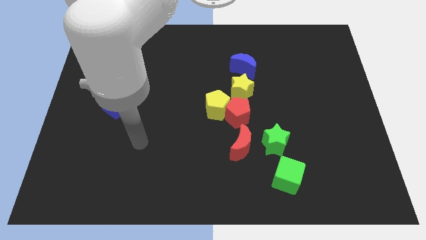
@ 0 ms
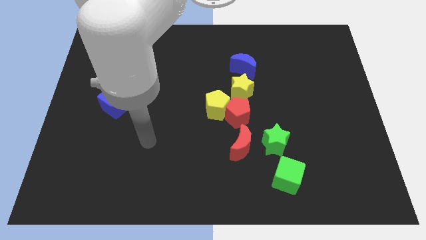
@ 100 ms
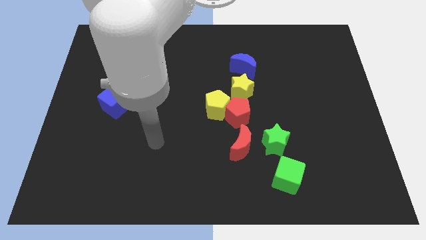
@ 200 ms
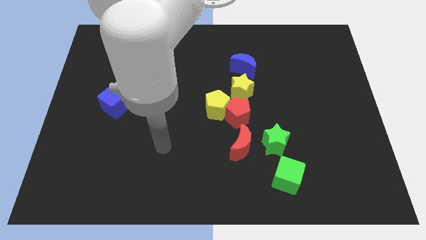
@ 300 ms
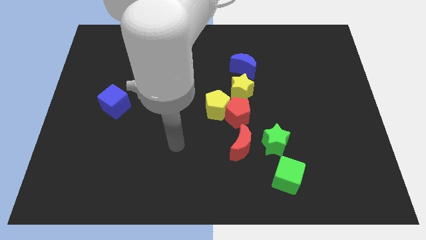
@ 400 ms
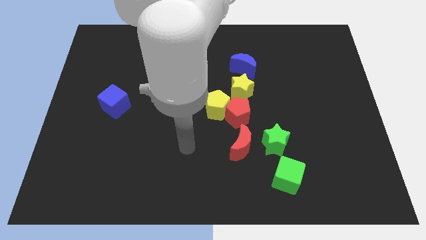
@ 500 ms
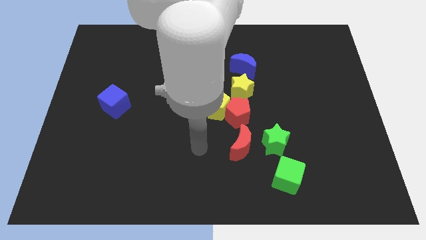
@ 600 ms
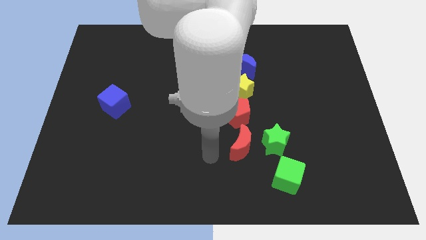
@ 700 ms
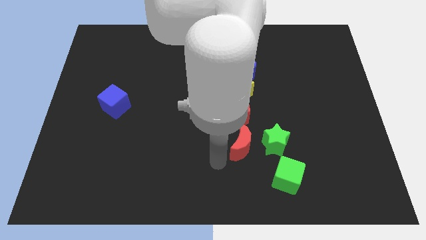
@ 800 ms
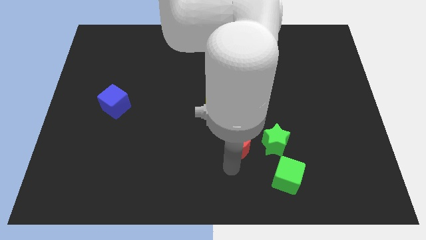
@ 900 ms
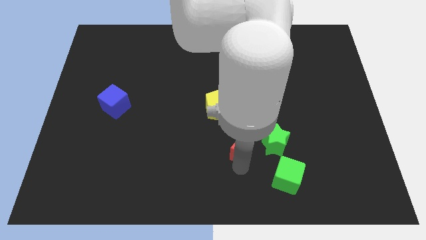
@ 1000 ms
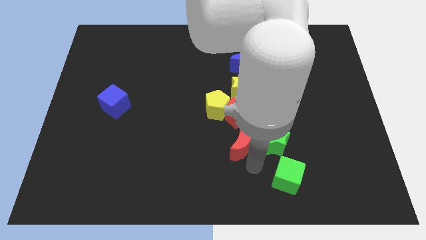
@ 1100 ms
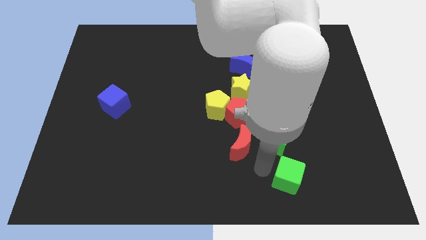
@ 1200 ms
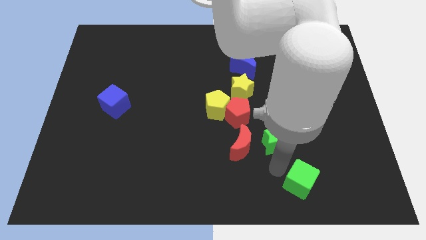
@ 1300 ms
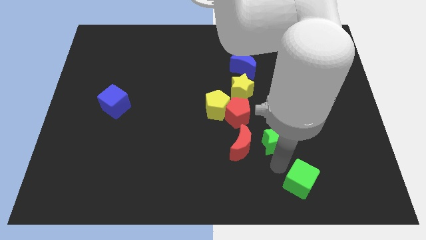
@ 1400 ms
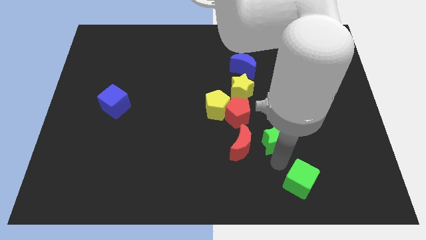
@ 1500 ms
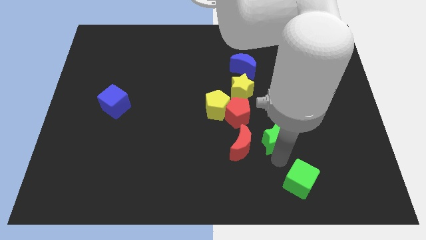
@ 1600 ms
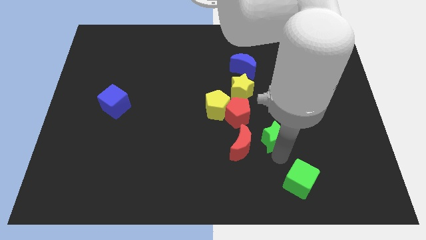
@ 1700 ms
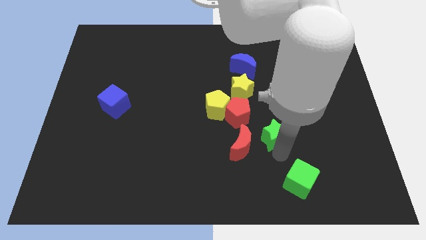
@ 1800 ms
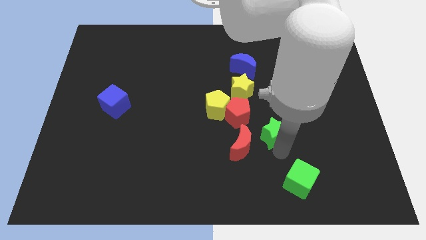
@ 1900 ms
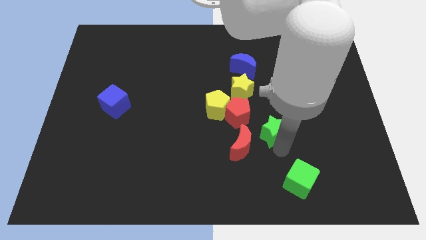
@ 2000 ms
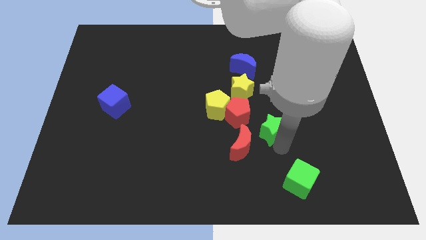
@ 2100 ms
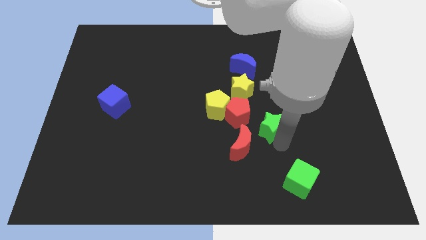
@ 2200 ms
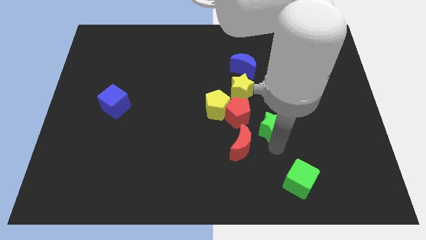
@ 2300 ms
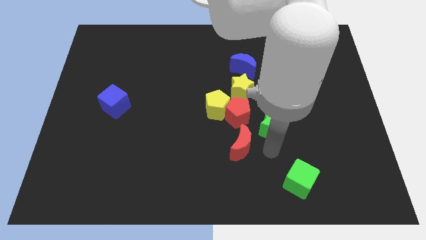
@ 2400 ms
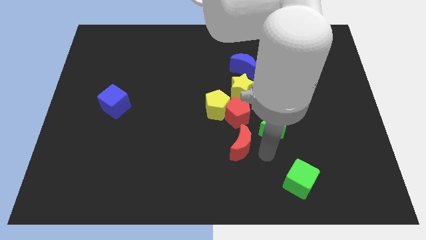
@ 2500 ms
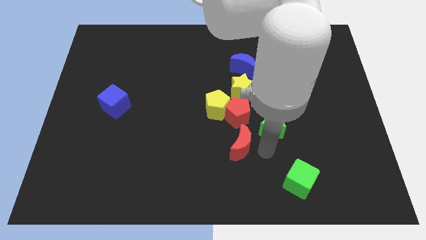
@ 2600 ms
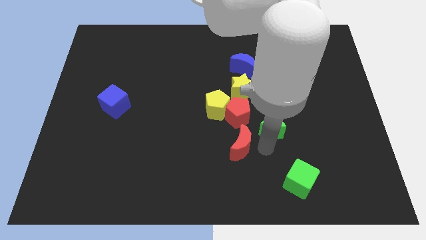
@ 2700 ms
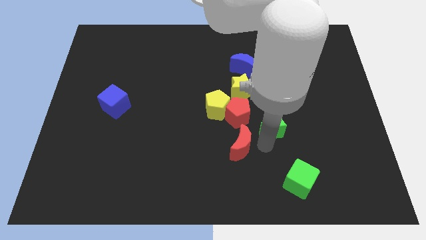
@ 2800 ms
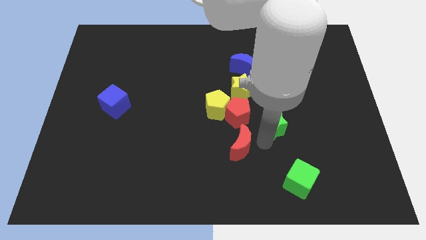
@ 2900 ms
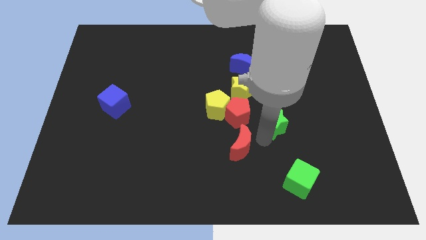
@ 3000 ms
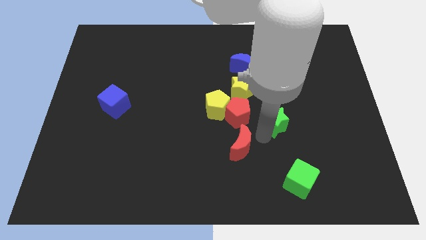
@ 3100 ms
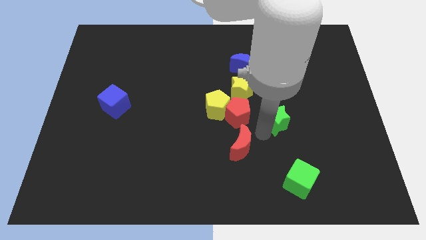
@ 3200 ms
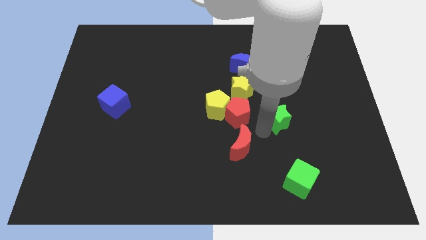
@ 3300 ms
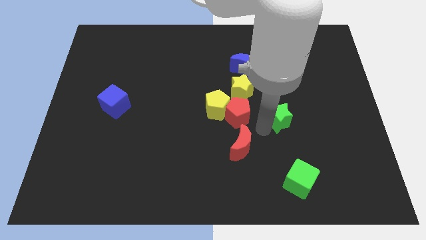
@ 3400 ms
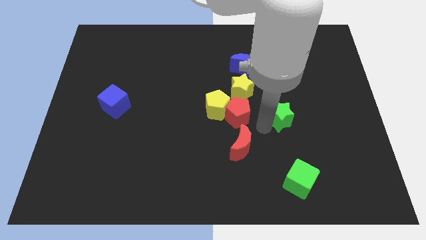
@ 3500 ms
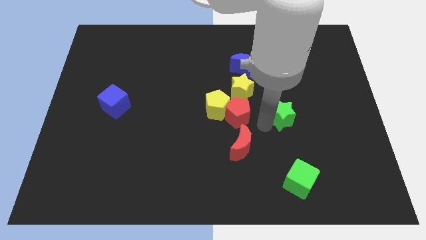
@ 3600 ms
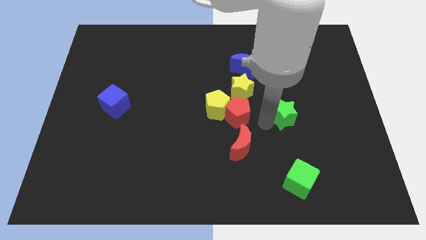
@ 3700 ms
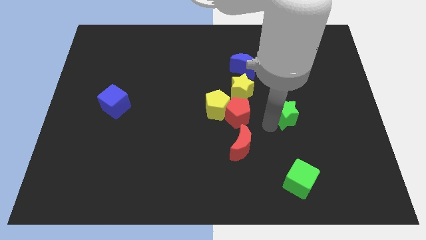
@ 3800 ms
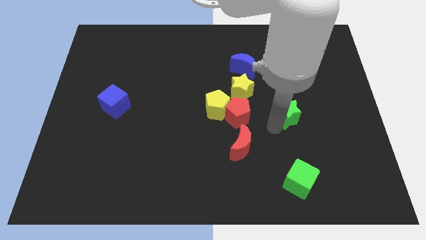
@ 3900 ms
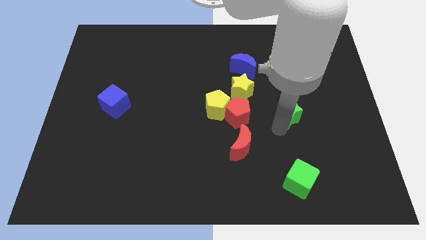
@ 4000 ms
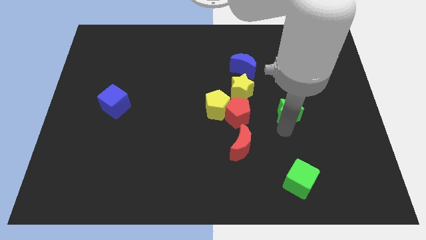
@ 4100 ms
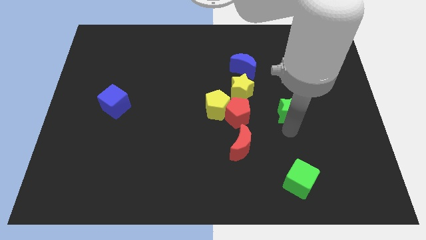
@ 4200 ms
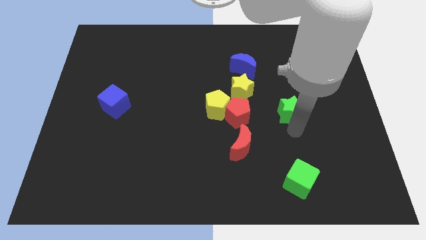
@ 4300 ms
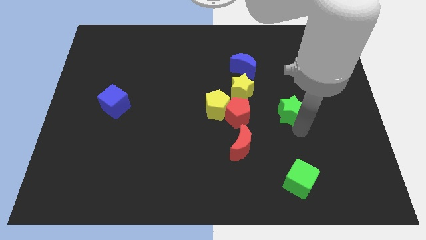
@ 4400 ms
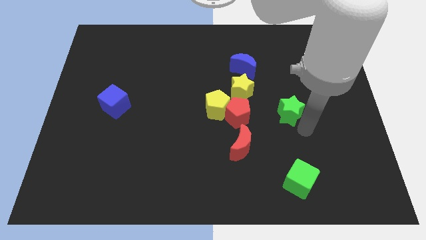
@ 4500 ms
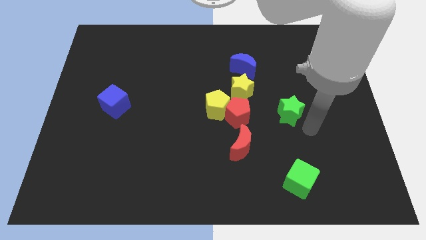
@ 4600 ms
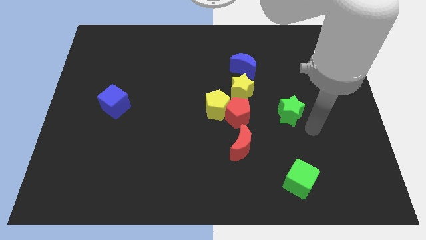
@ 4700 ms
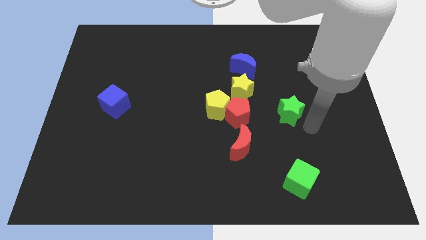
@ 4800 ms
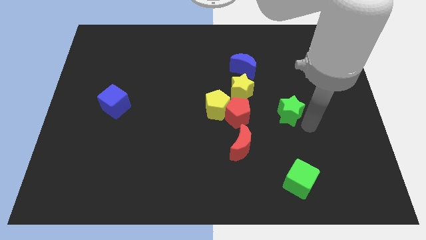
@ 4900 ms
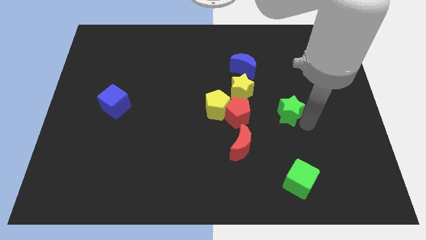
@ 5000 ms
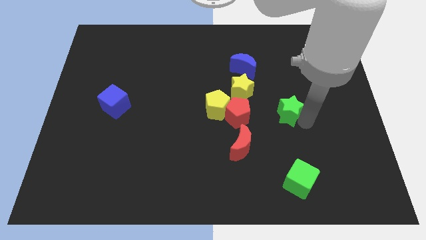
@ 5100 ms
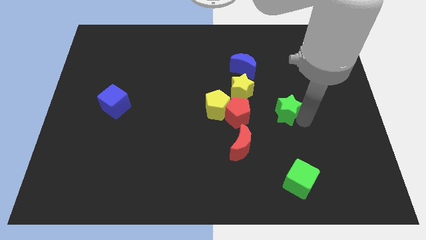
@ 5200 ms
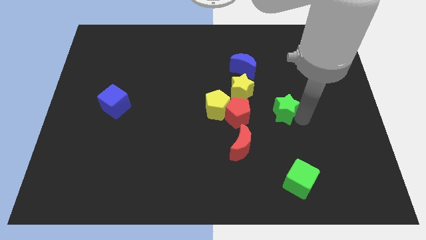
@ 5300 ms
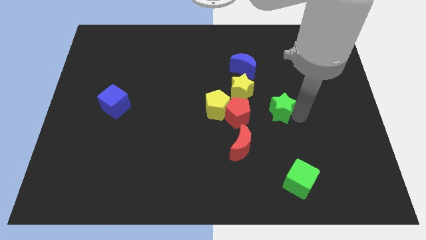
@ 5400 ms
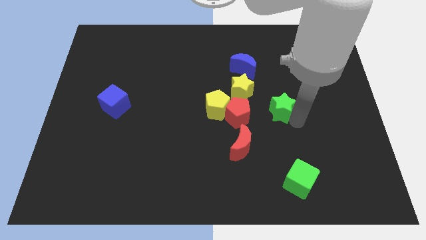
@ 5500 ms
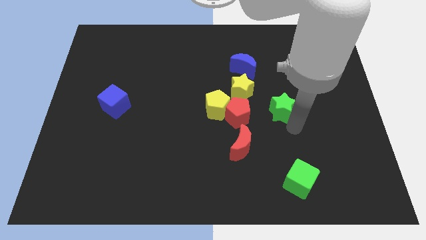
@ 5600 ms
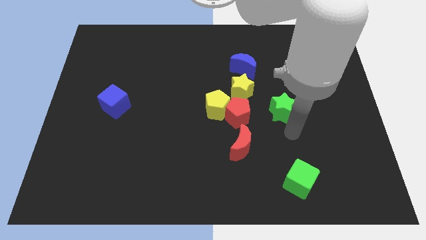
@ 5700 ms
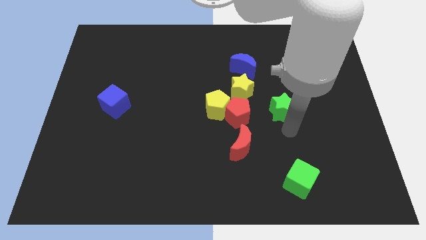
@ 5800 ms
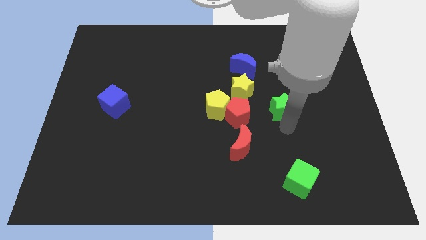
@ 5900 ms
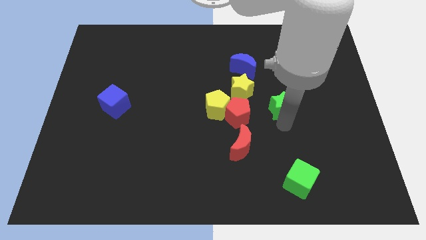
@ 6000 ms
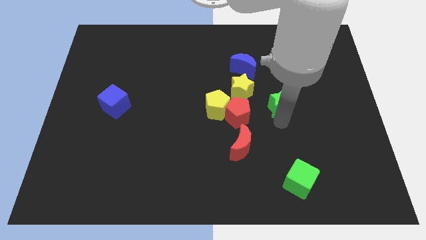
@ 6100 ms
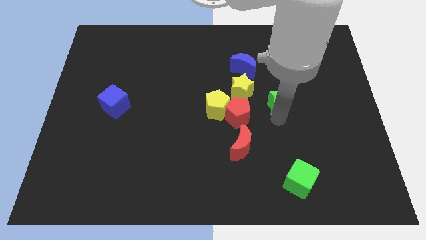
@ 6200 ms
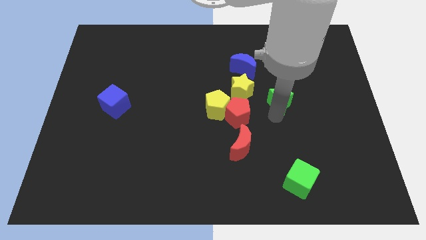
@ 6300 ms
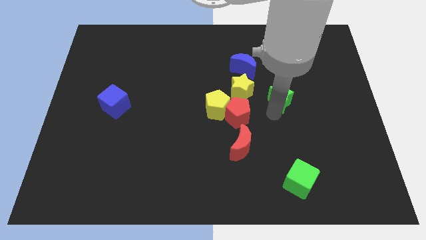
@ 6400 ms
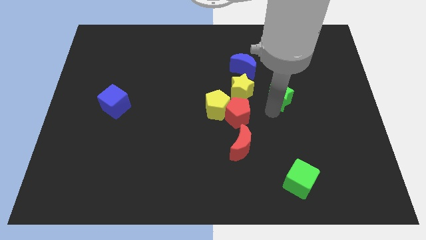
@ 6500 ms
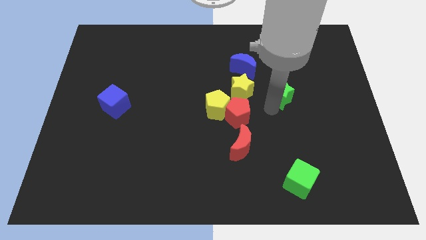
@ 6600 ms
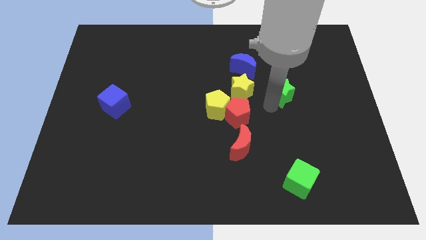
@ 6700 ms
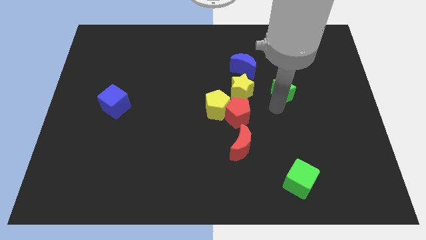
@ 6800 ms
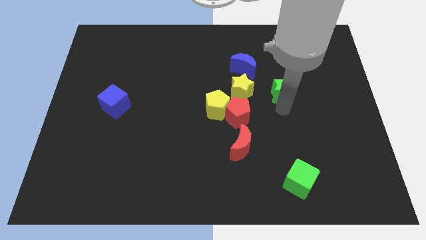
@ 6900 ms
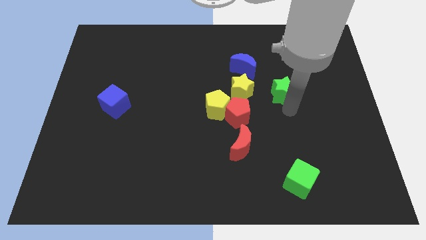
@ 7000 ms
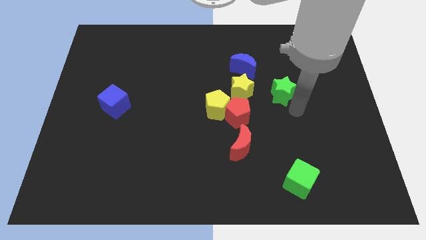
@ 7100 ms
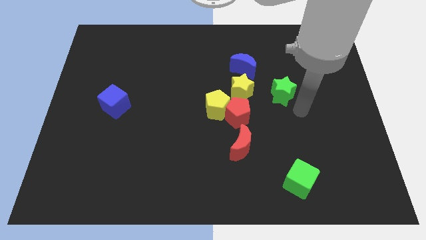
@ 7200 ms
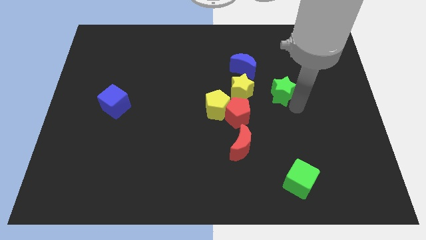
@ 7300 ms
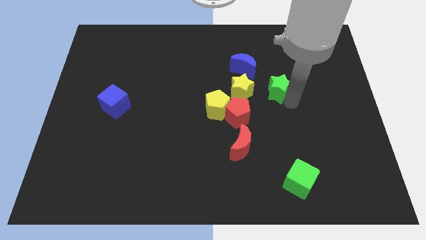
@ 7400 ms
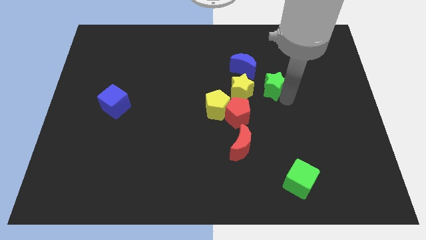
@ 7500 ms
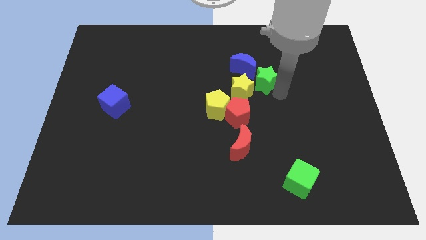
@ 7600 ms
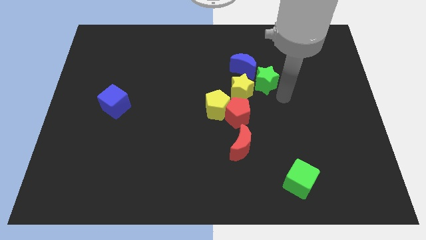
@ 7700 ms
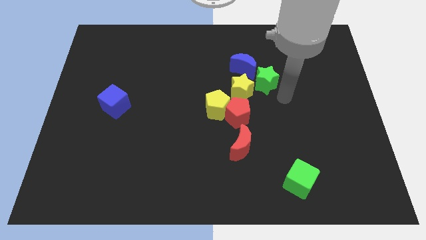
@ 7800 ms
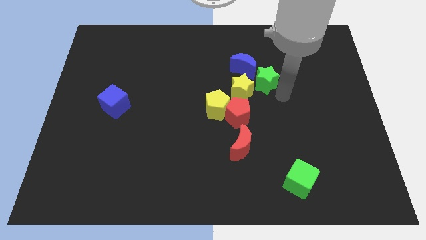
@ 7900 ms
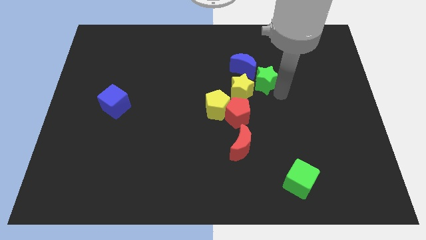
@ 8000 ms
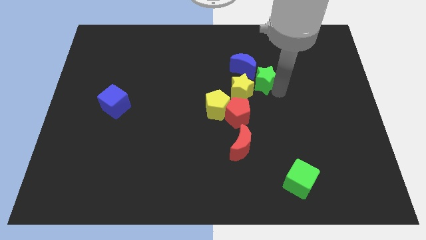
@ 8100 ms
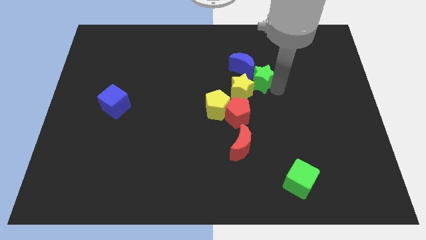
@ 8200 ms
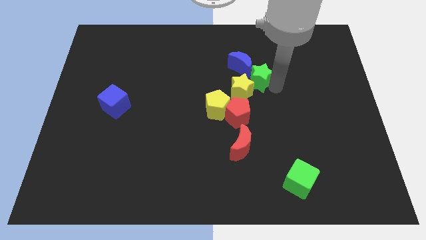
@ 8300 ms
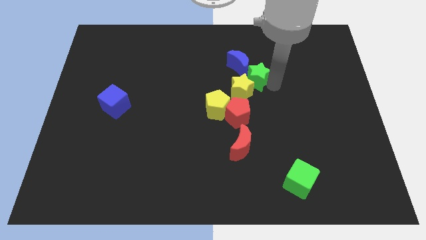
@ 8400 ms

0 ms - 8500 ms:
push the green star towards the blue moon
